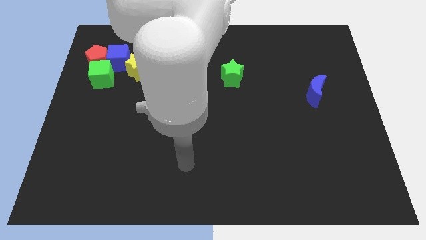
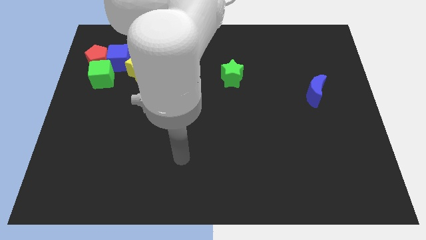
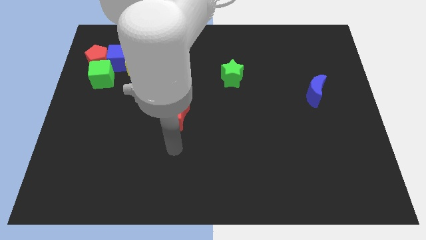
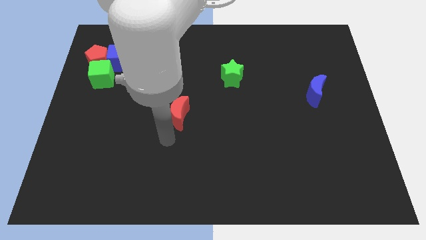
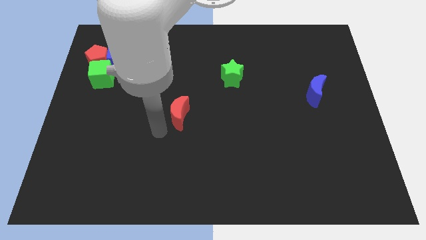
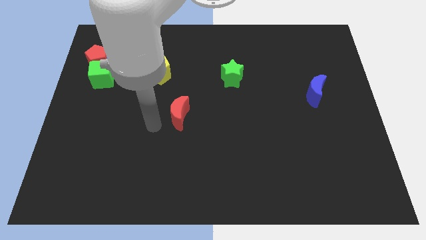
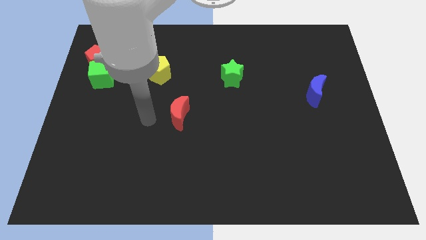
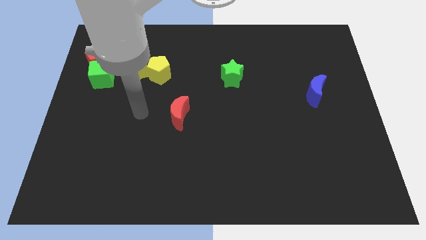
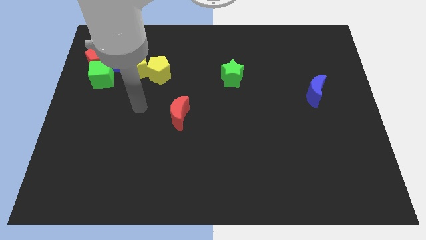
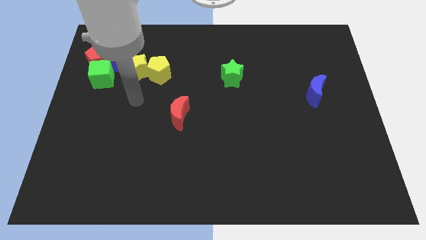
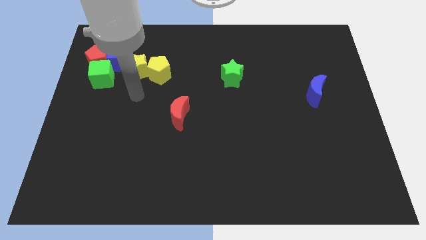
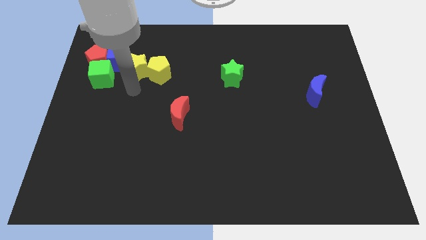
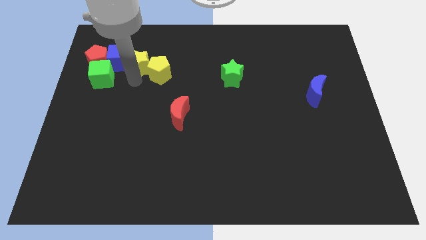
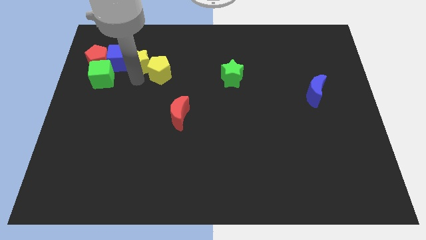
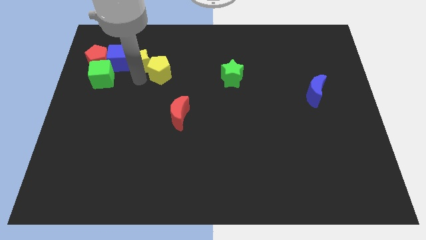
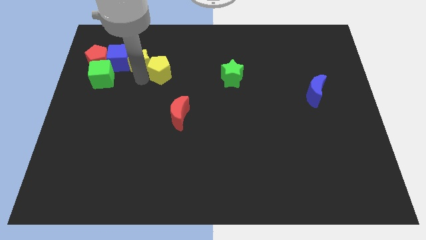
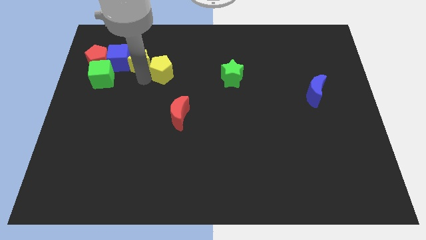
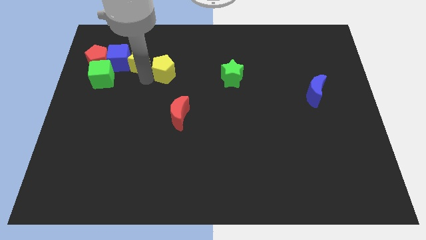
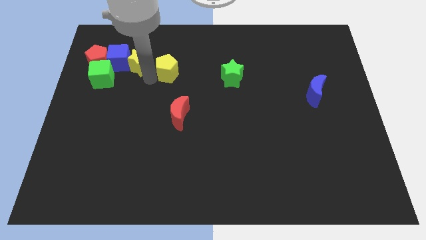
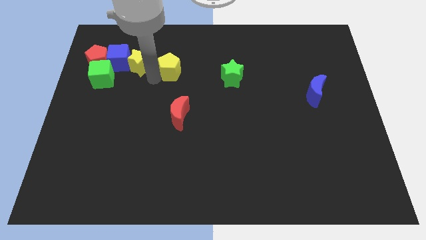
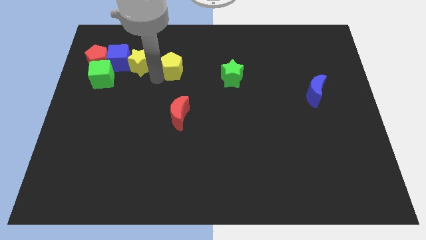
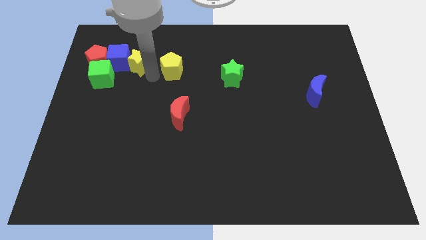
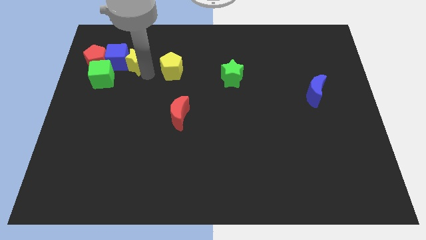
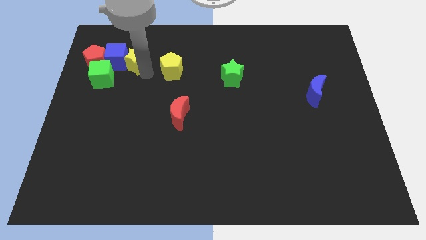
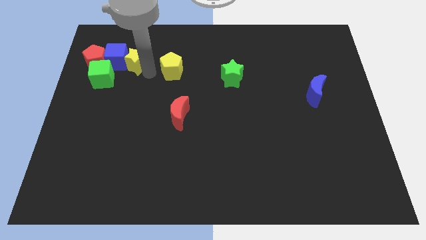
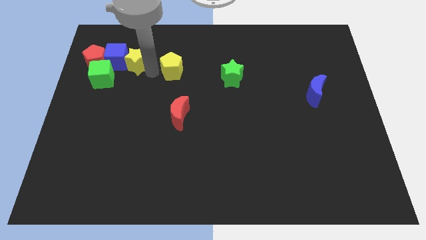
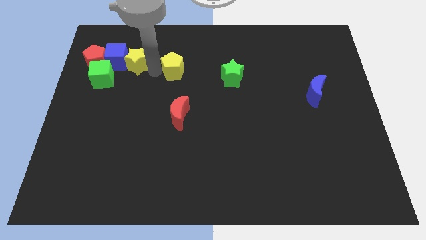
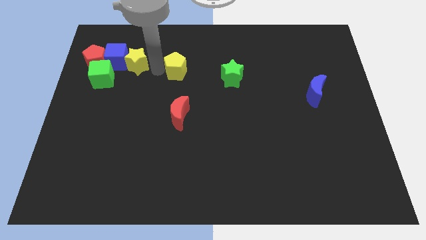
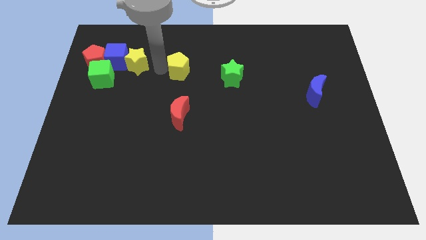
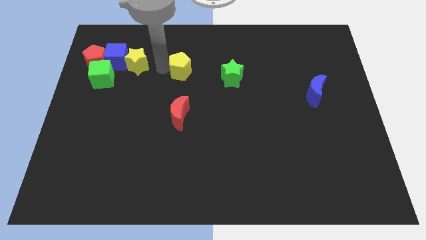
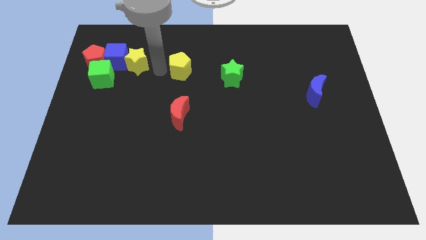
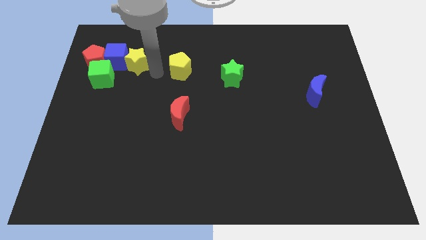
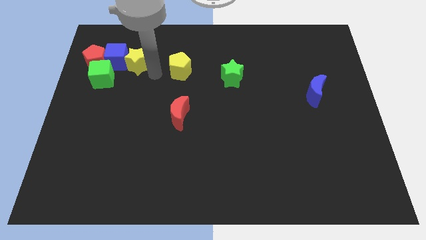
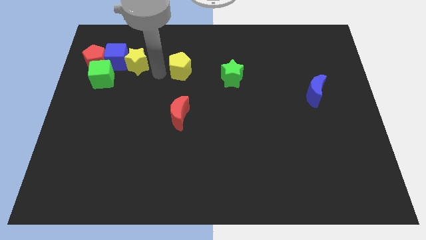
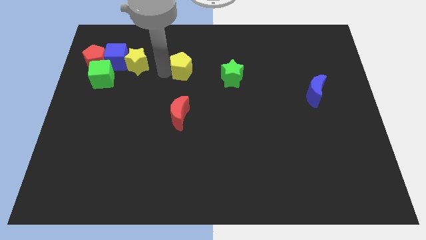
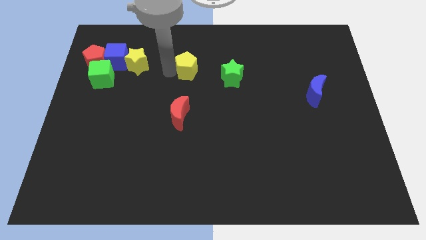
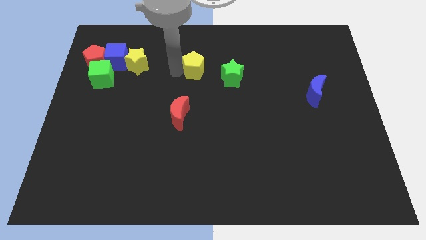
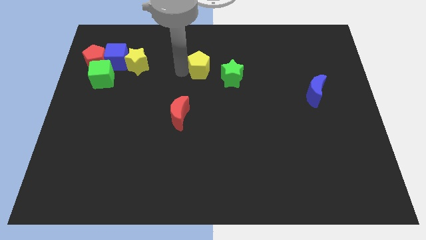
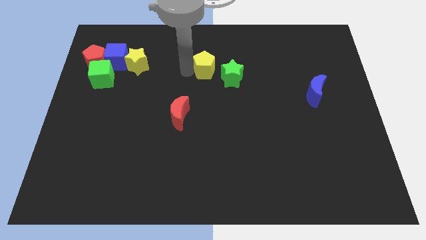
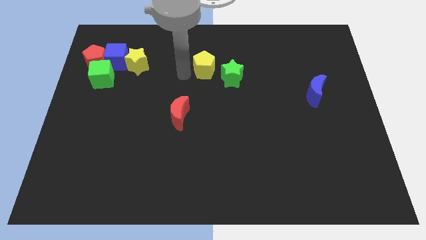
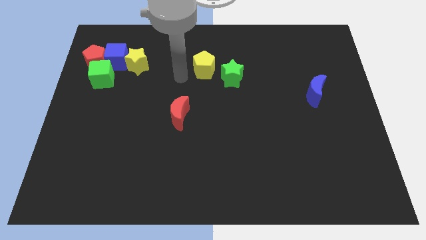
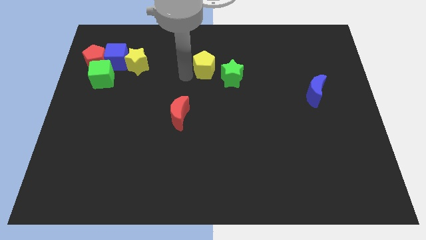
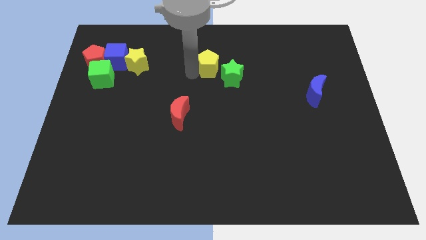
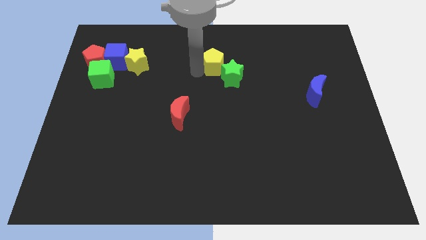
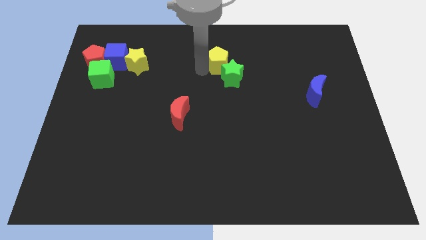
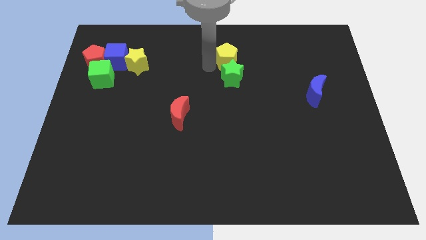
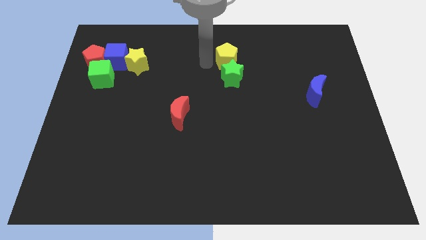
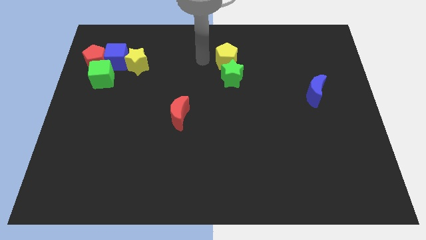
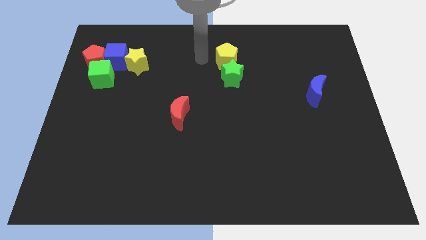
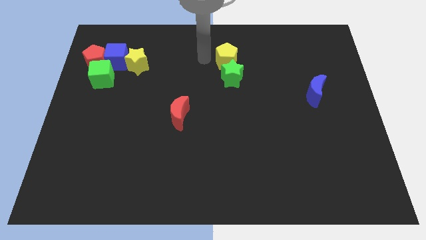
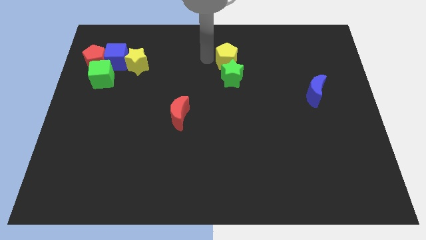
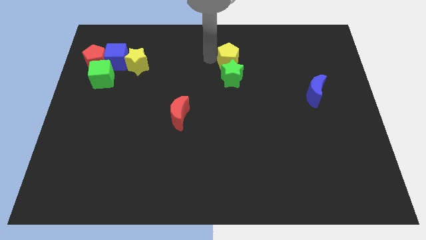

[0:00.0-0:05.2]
move the yellow pentagon to the top right side of the green star

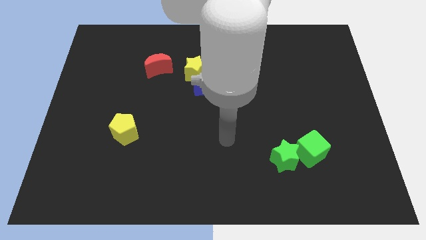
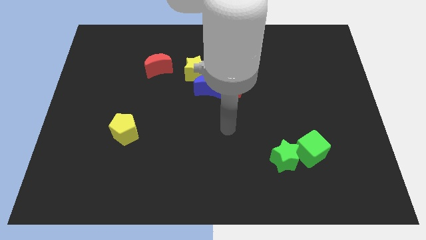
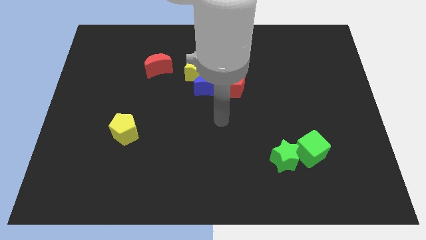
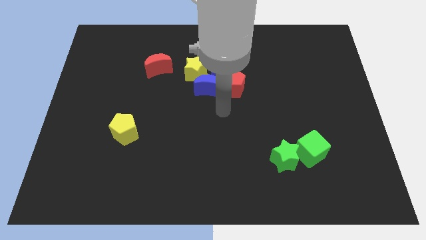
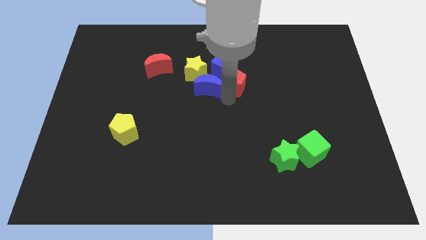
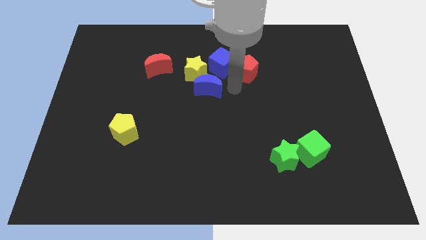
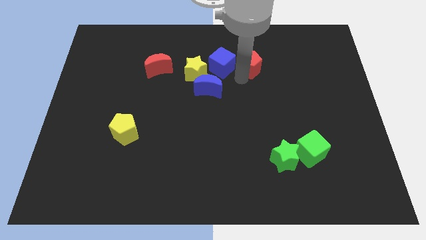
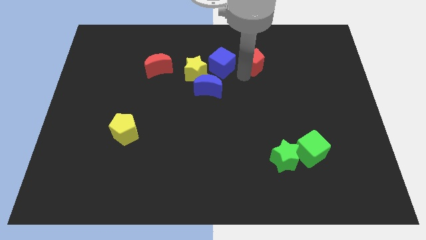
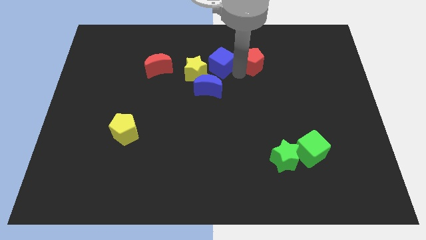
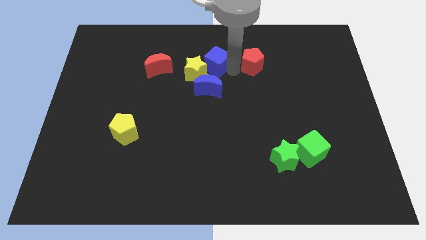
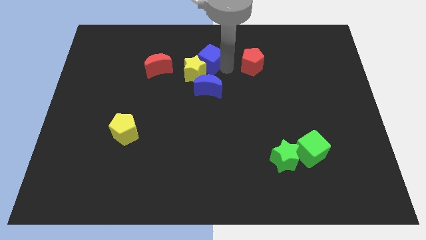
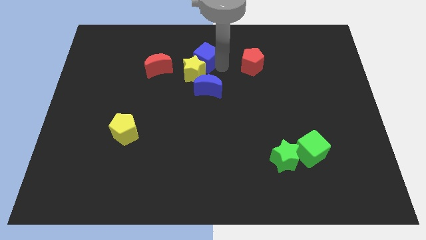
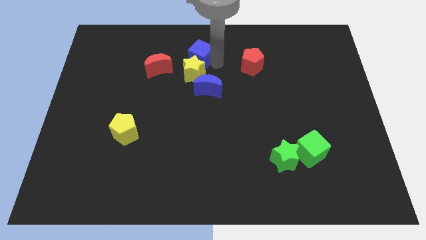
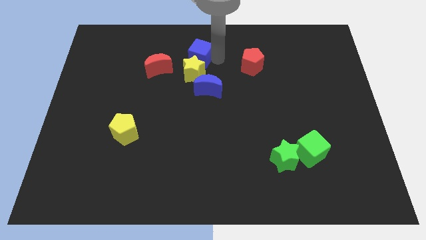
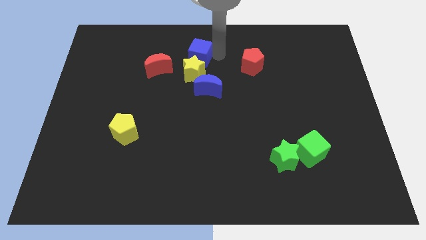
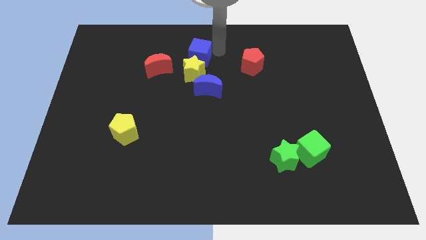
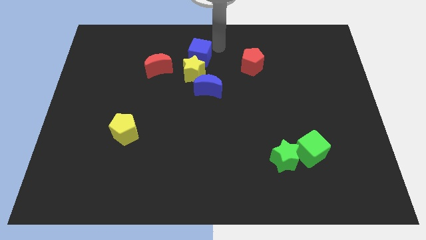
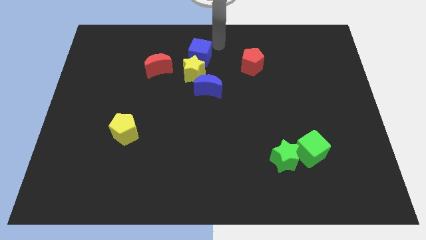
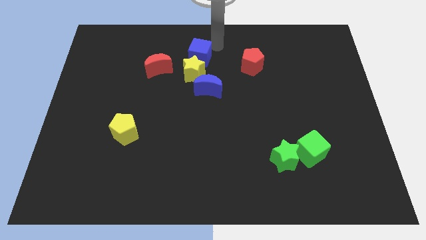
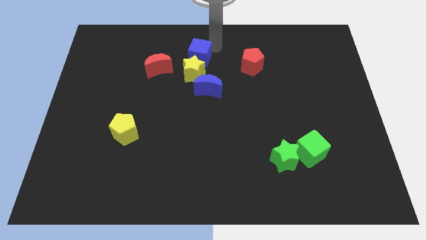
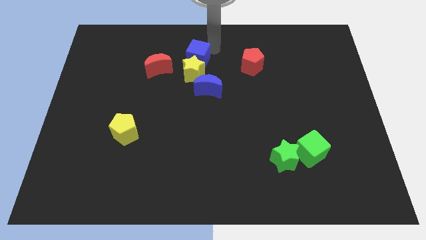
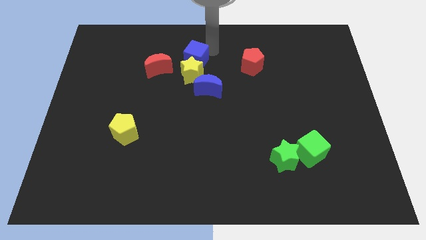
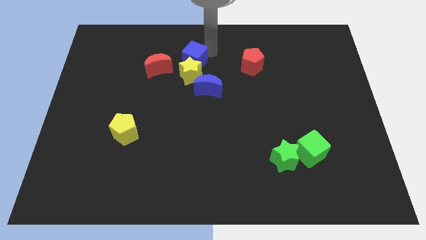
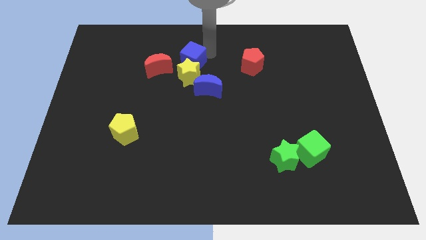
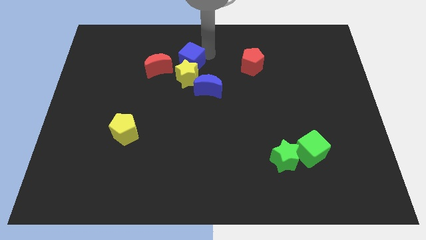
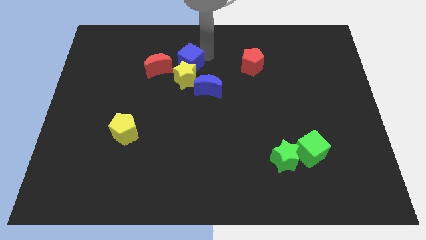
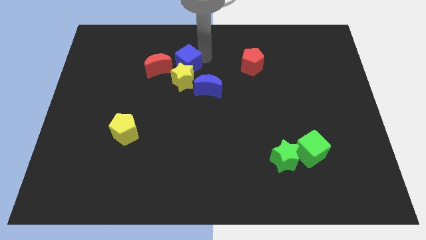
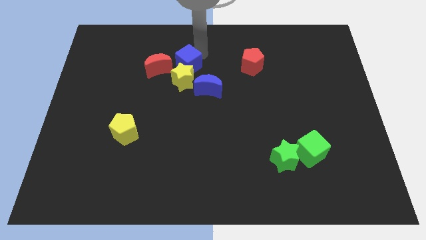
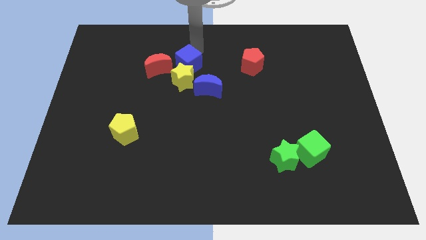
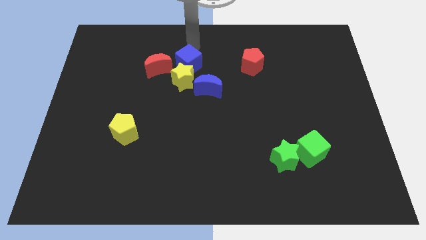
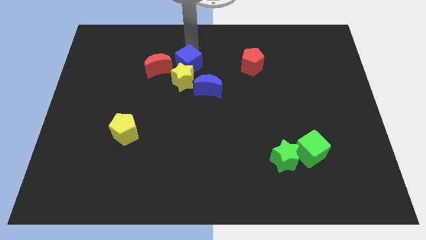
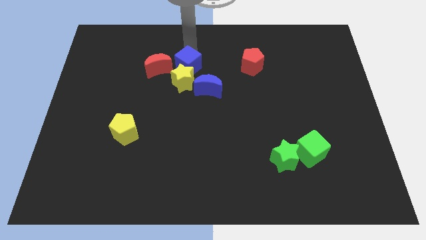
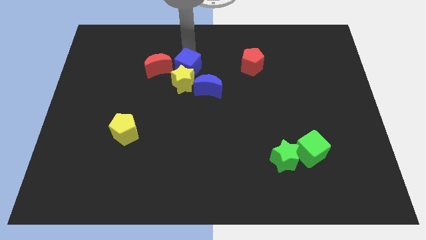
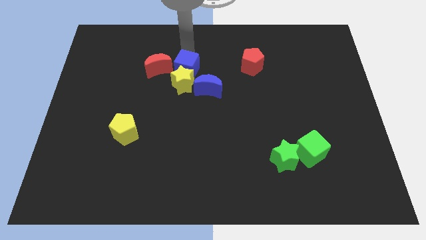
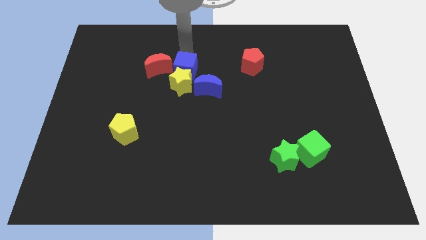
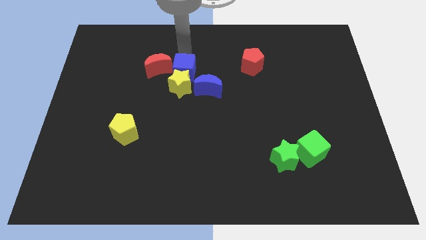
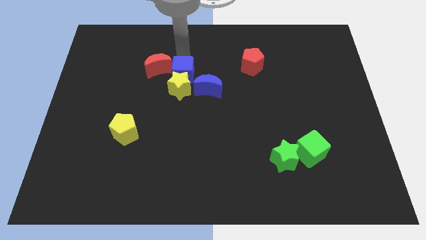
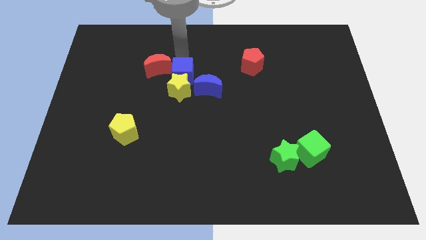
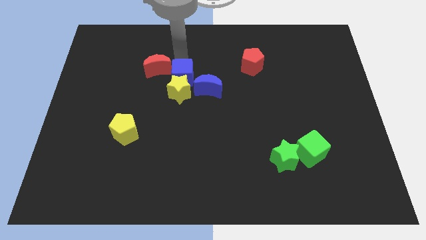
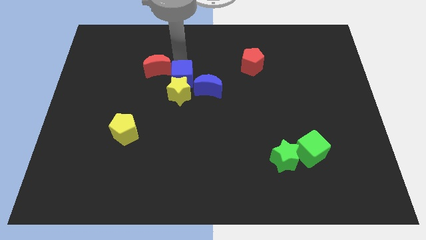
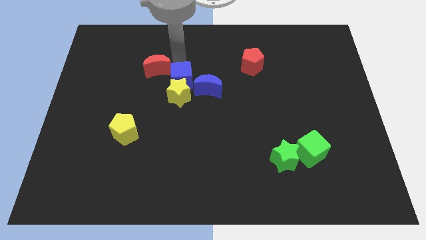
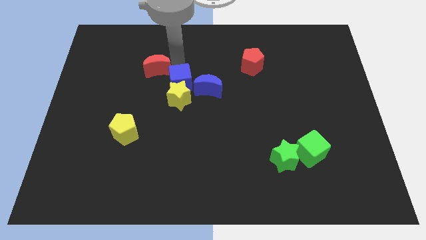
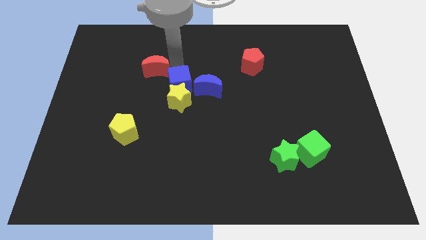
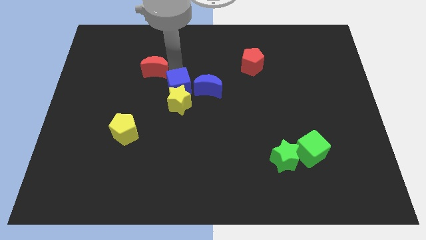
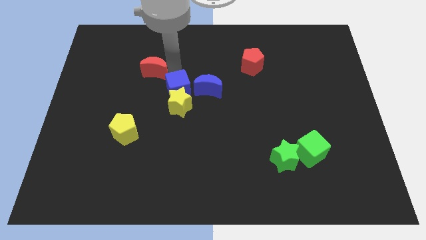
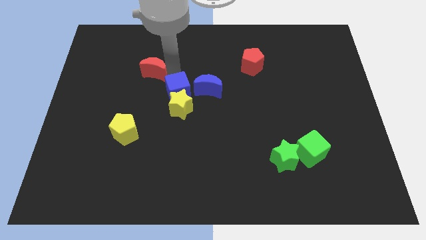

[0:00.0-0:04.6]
push the blue cube to the bottom left of the blue moon
